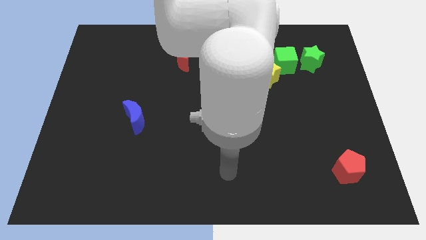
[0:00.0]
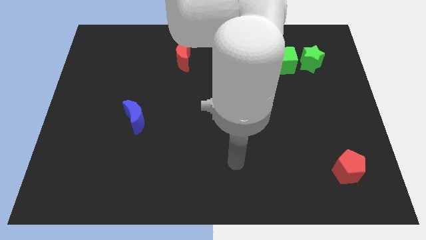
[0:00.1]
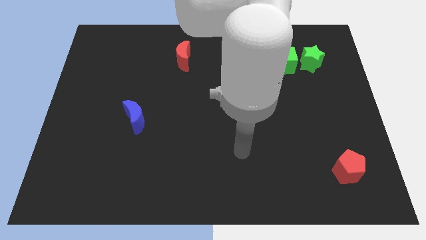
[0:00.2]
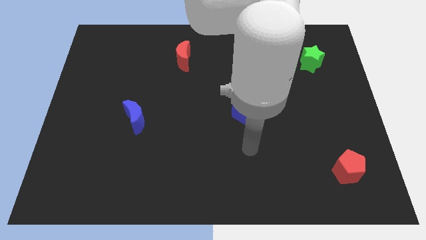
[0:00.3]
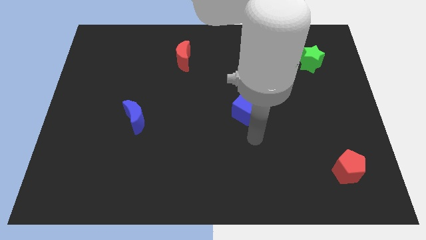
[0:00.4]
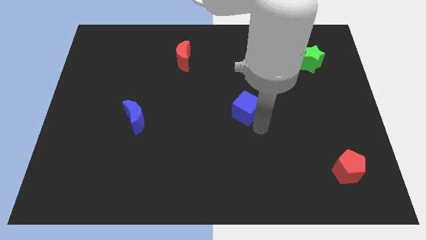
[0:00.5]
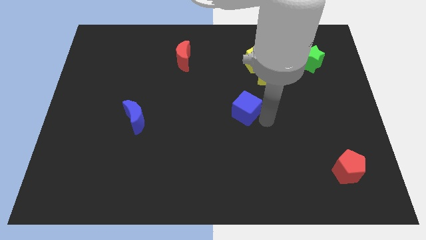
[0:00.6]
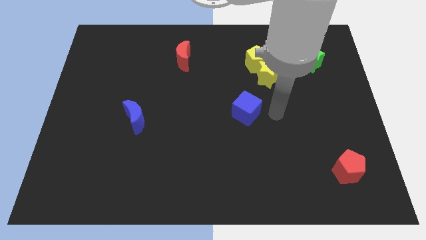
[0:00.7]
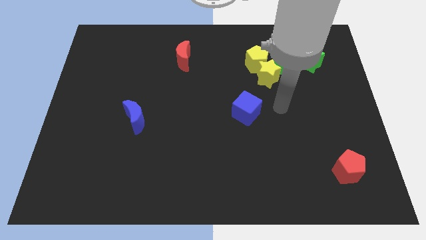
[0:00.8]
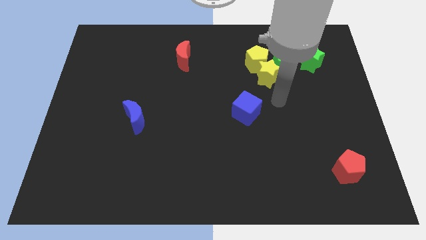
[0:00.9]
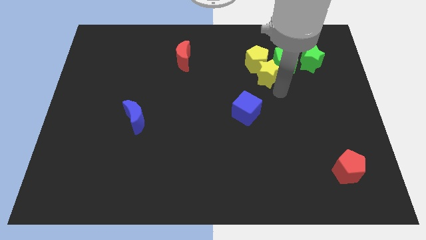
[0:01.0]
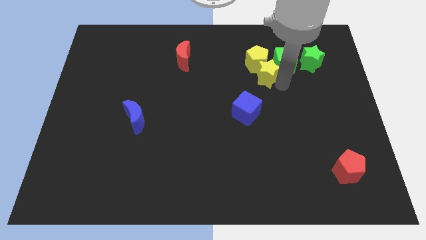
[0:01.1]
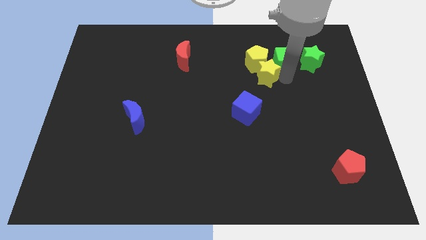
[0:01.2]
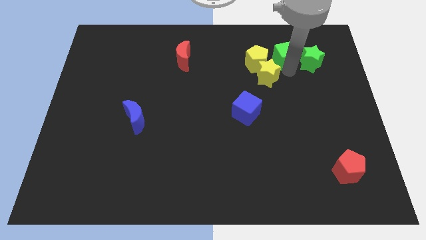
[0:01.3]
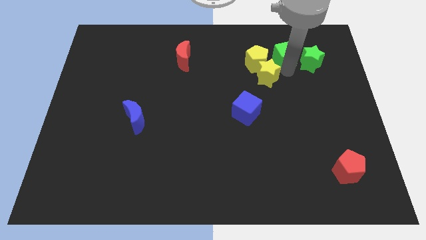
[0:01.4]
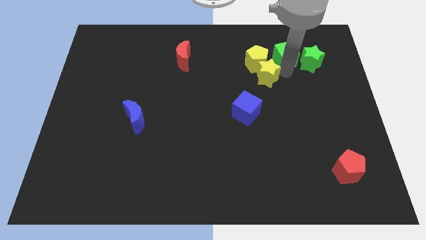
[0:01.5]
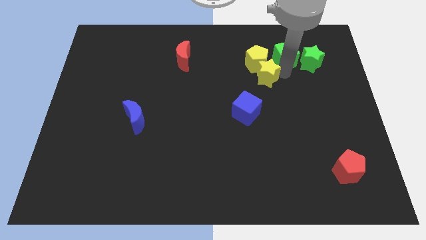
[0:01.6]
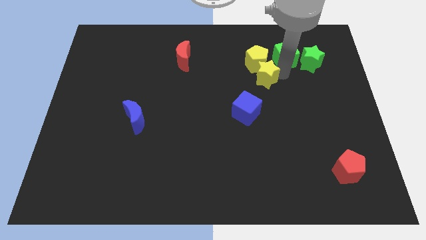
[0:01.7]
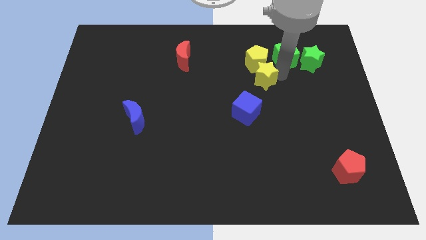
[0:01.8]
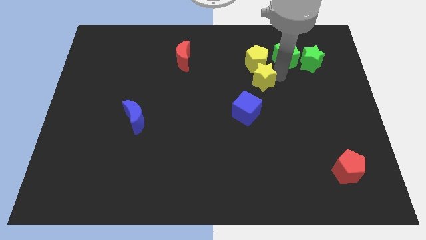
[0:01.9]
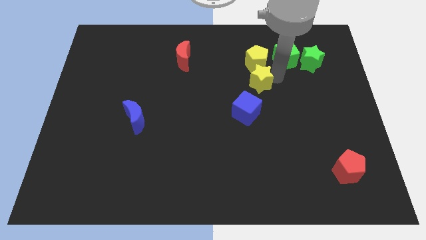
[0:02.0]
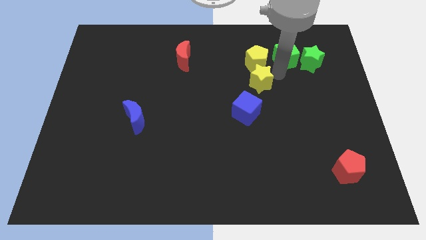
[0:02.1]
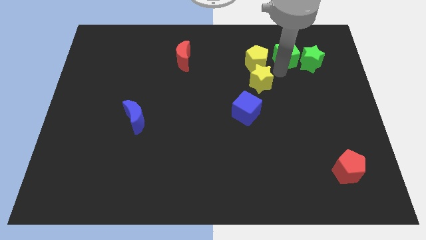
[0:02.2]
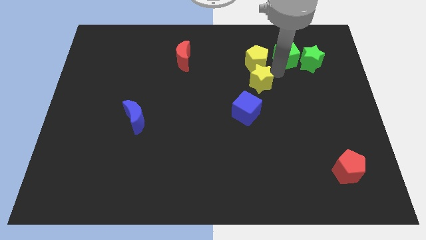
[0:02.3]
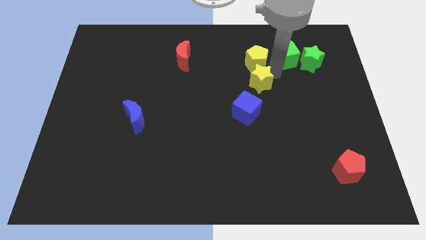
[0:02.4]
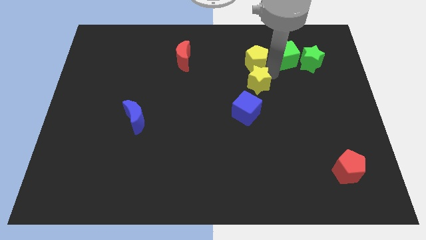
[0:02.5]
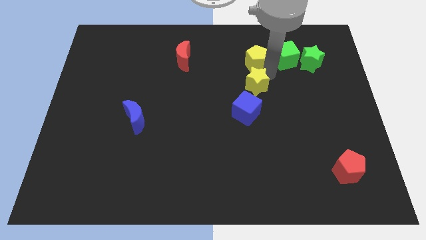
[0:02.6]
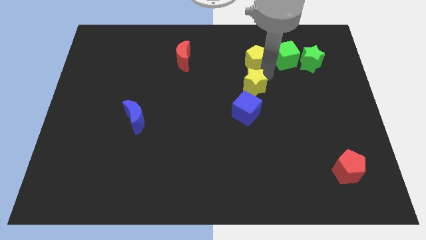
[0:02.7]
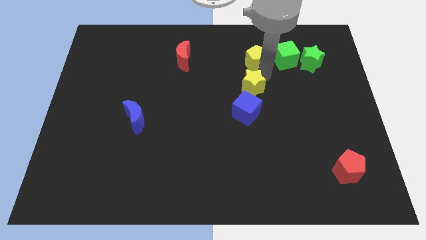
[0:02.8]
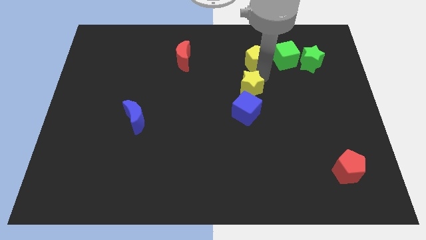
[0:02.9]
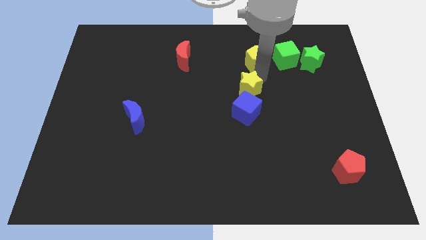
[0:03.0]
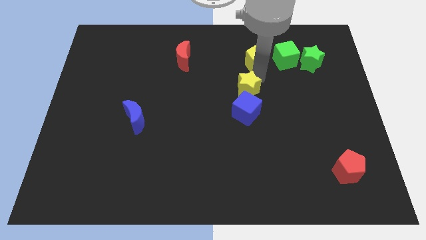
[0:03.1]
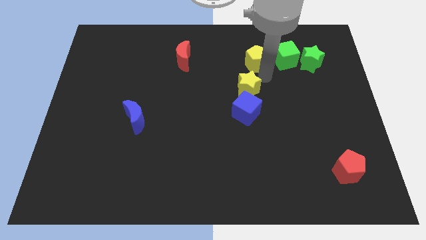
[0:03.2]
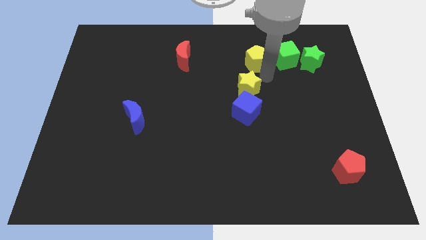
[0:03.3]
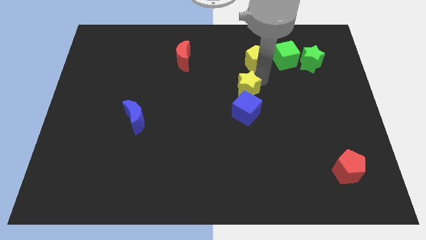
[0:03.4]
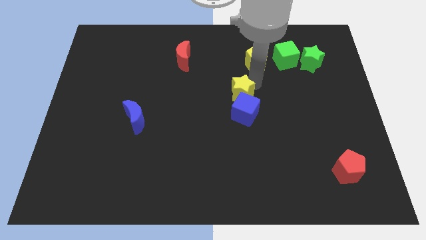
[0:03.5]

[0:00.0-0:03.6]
slightly push the yellow star downwards and then to the left

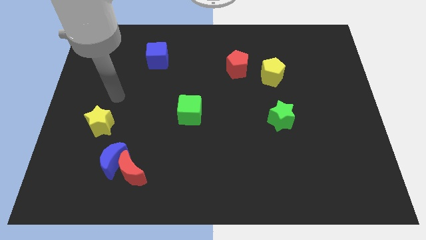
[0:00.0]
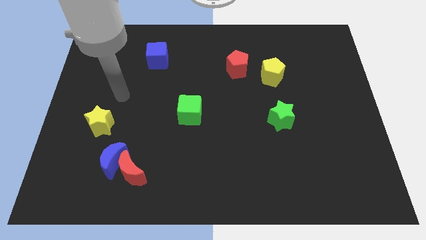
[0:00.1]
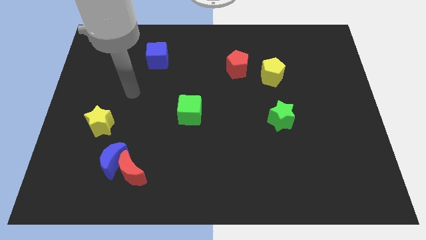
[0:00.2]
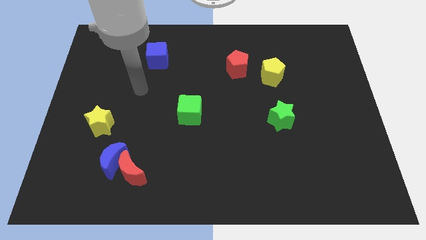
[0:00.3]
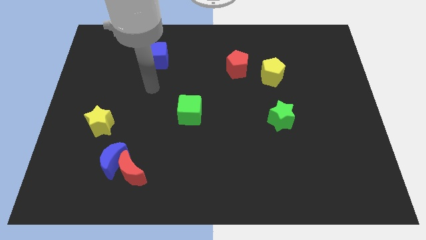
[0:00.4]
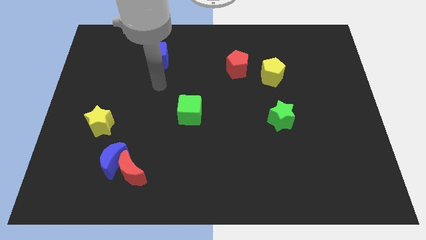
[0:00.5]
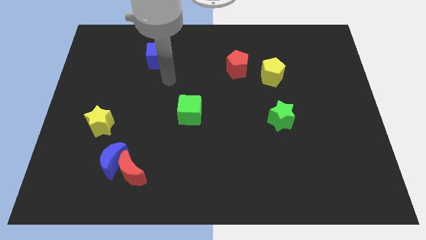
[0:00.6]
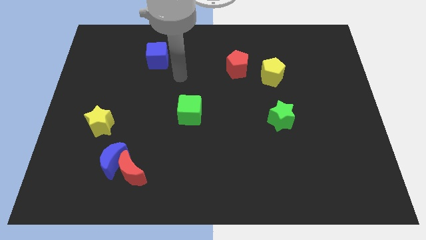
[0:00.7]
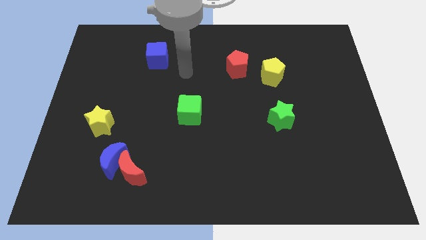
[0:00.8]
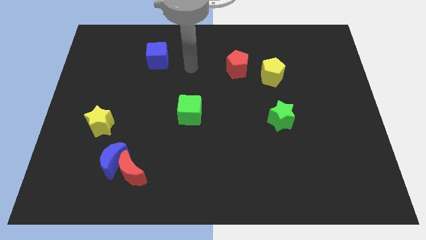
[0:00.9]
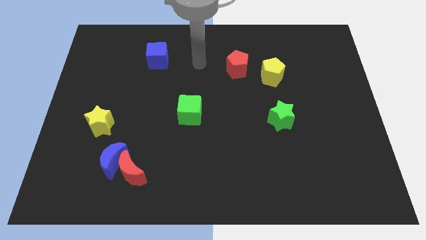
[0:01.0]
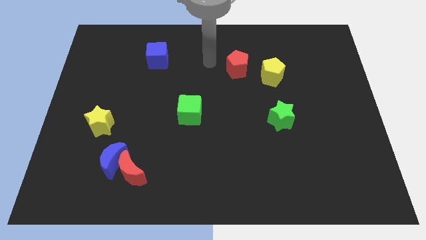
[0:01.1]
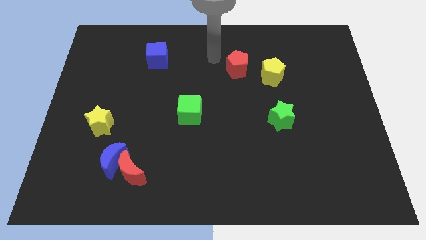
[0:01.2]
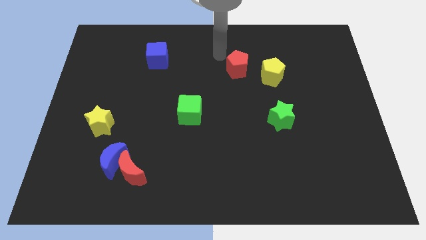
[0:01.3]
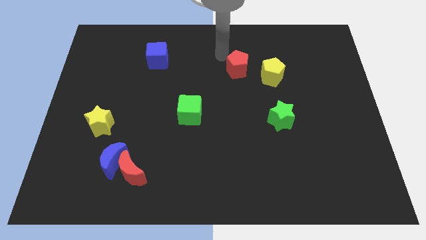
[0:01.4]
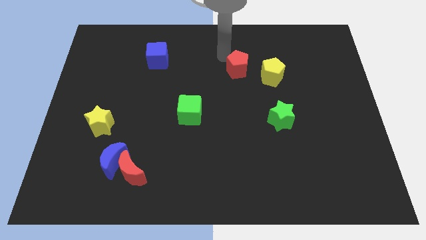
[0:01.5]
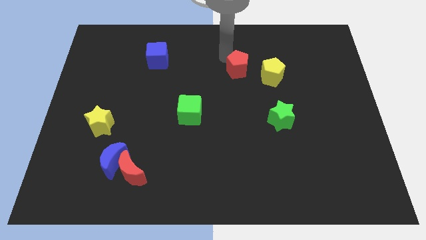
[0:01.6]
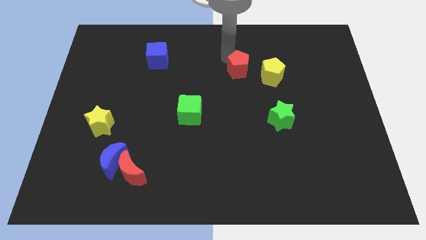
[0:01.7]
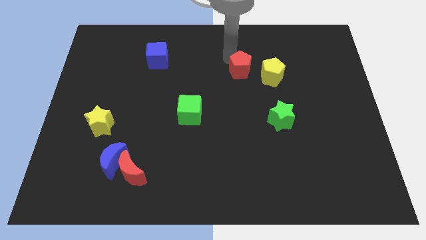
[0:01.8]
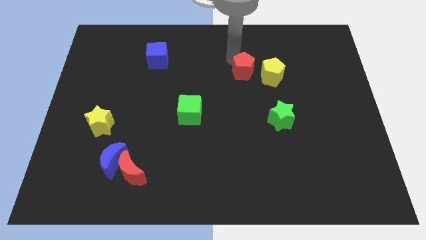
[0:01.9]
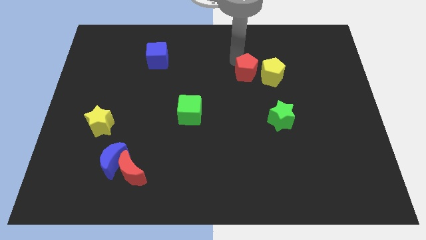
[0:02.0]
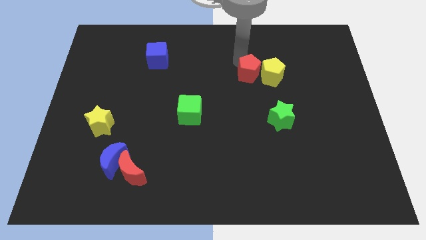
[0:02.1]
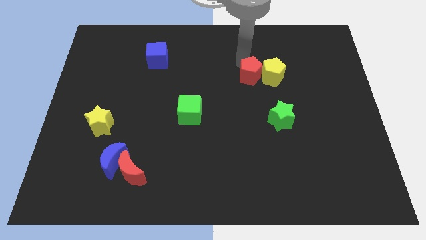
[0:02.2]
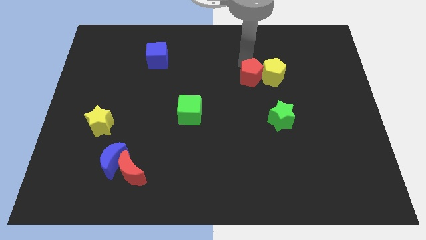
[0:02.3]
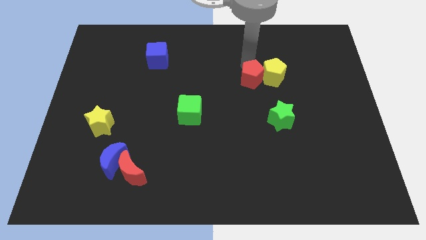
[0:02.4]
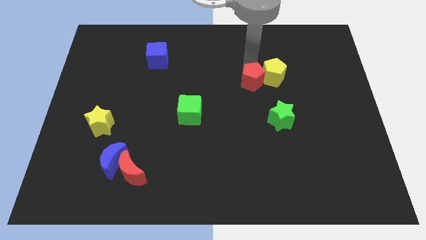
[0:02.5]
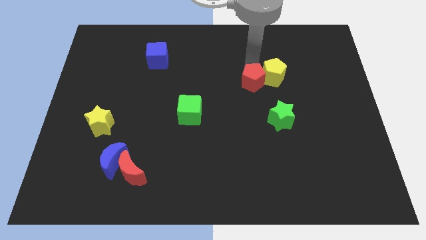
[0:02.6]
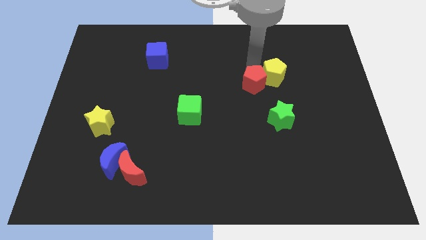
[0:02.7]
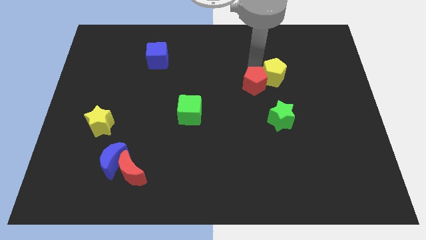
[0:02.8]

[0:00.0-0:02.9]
slide the red pentagon a little downwards and to the right diagonally

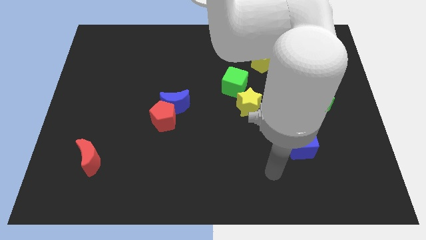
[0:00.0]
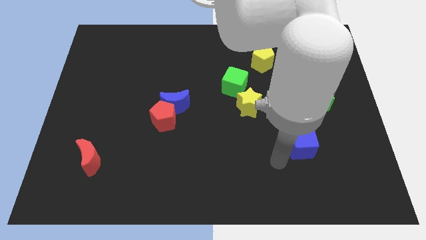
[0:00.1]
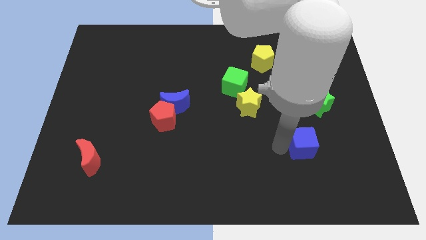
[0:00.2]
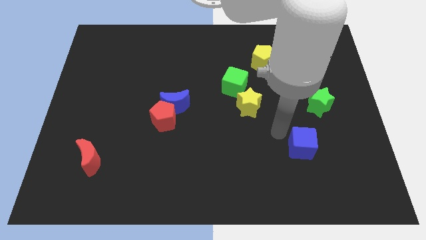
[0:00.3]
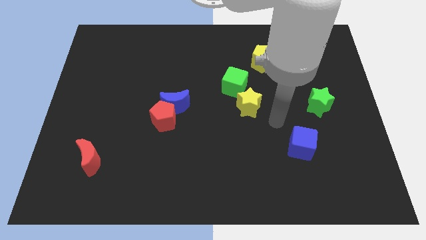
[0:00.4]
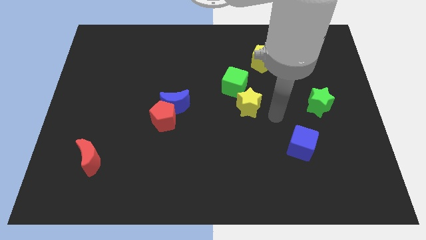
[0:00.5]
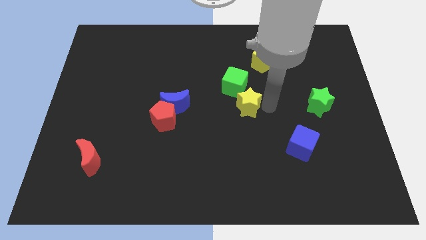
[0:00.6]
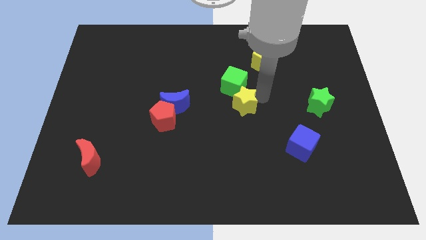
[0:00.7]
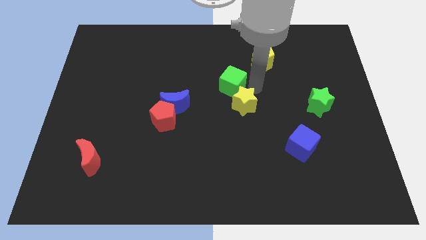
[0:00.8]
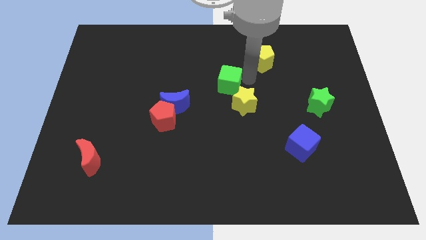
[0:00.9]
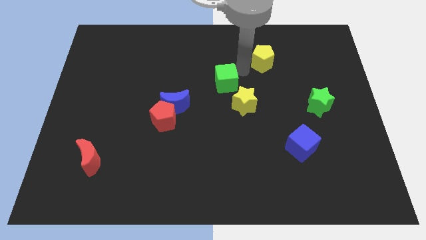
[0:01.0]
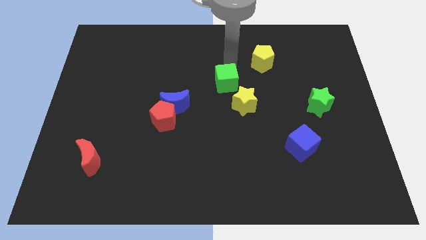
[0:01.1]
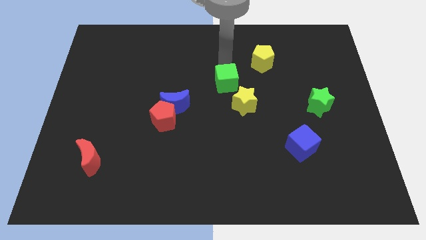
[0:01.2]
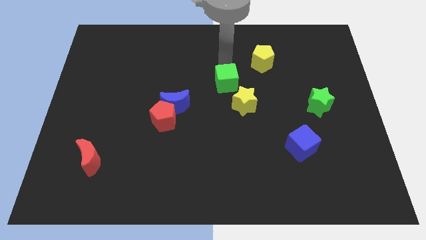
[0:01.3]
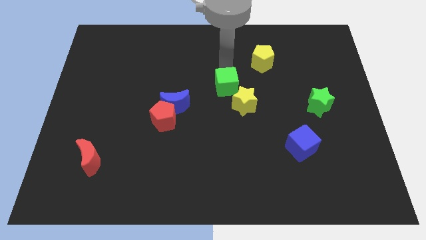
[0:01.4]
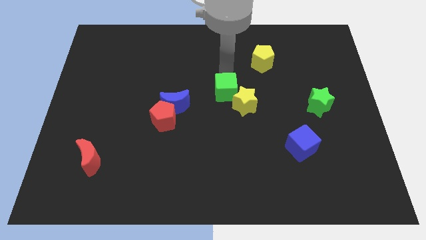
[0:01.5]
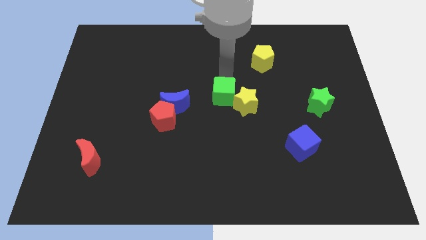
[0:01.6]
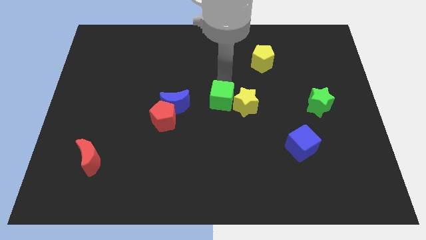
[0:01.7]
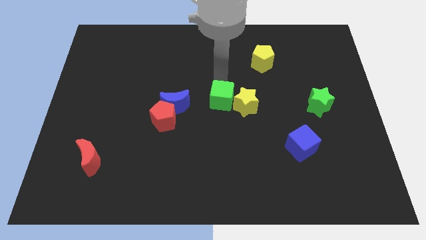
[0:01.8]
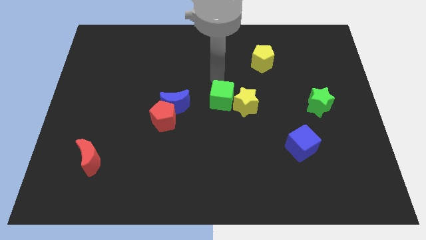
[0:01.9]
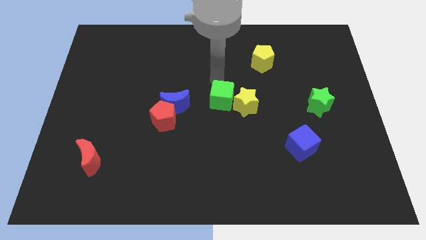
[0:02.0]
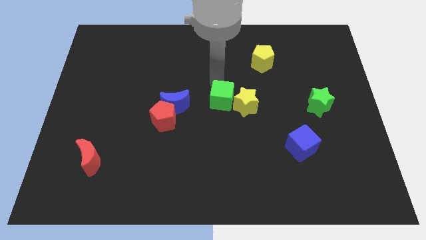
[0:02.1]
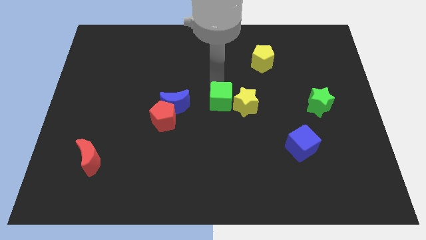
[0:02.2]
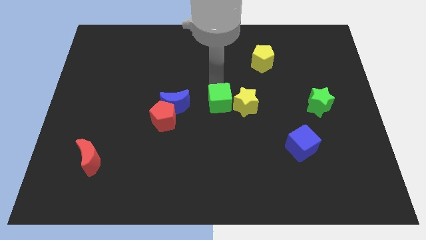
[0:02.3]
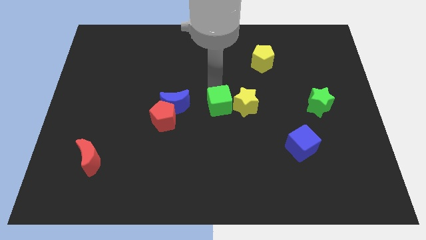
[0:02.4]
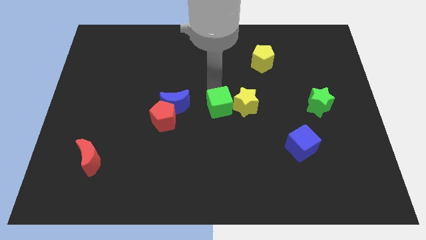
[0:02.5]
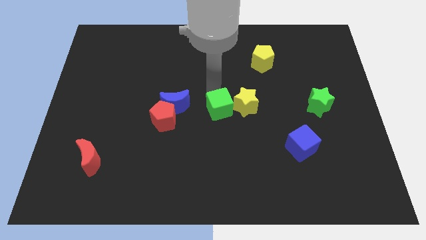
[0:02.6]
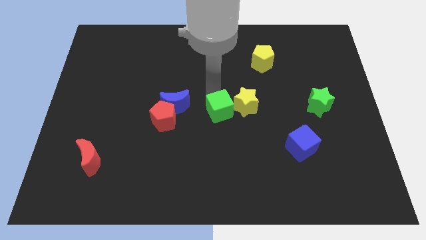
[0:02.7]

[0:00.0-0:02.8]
slide the green cube down a little bit
